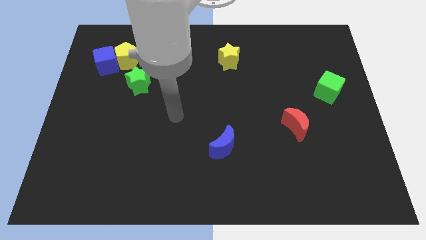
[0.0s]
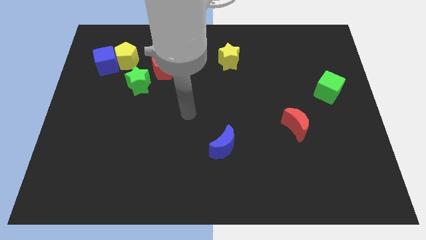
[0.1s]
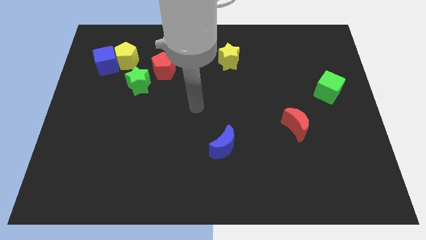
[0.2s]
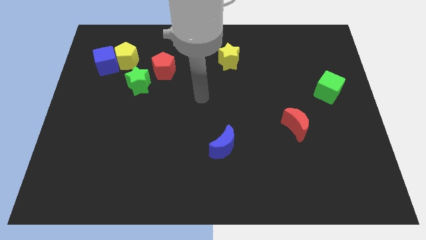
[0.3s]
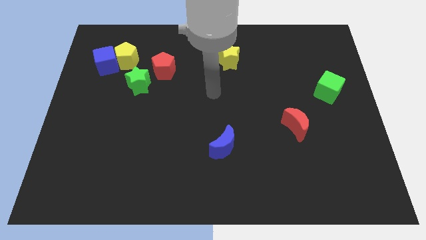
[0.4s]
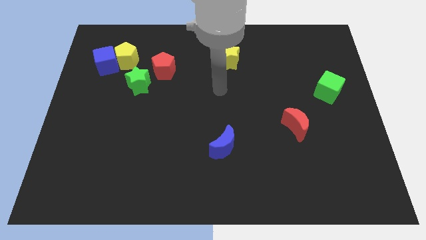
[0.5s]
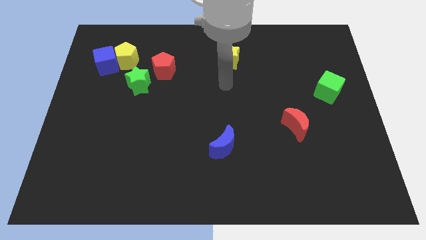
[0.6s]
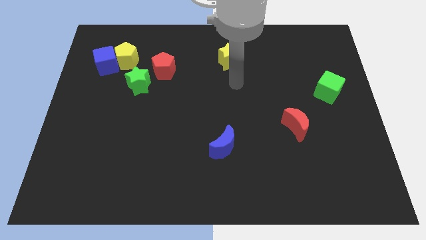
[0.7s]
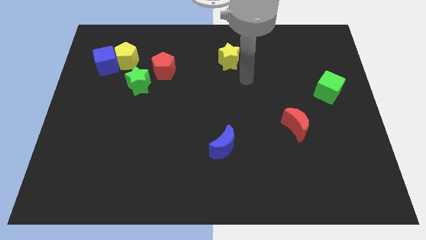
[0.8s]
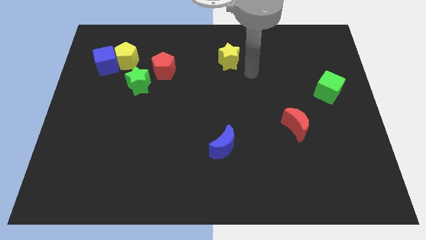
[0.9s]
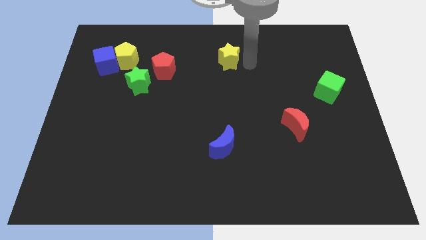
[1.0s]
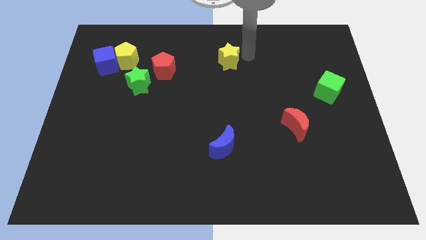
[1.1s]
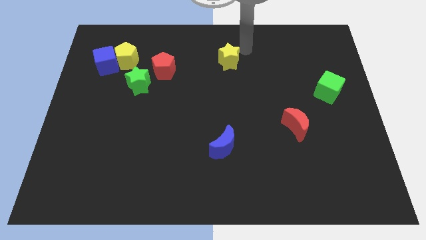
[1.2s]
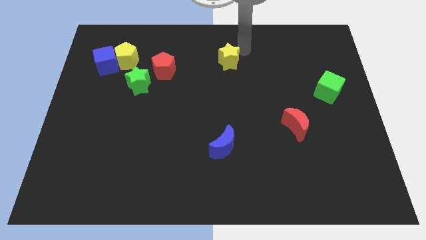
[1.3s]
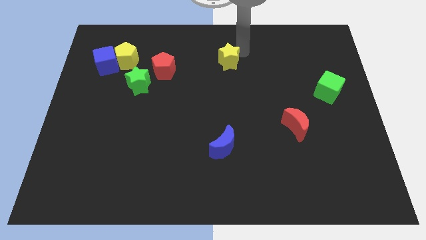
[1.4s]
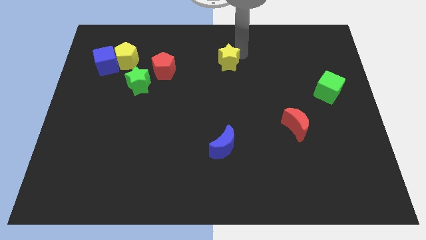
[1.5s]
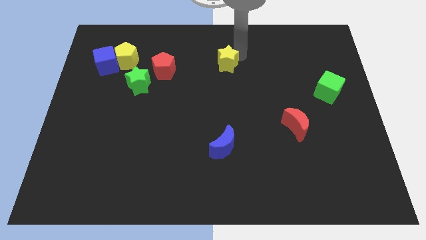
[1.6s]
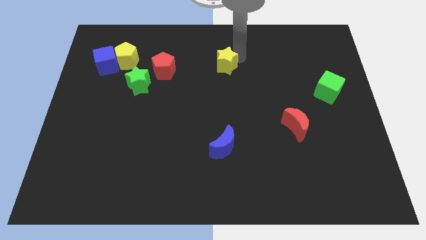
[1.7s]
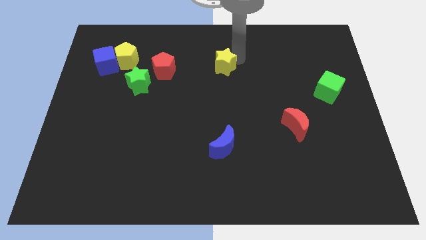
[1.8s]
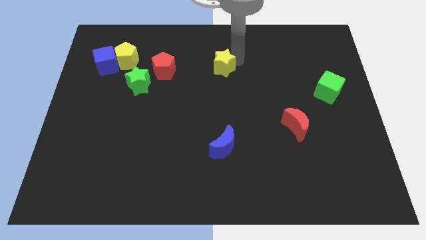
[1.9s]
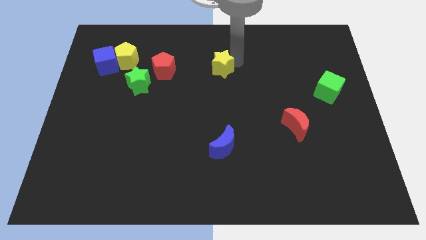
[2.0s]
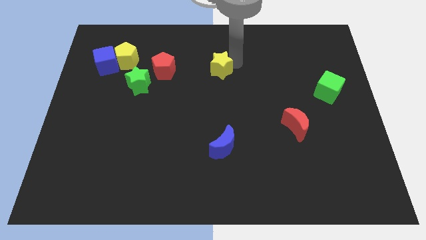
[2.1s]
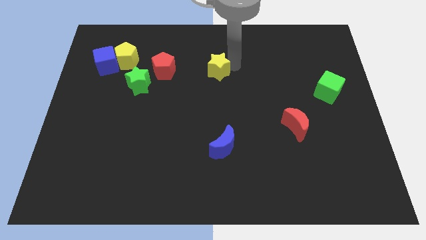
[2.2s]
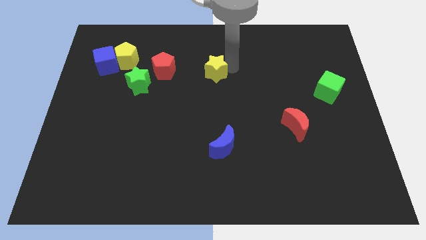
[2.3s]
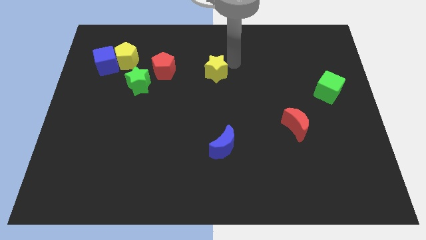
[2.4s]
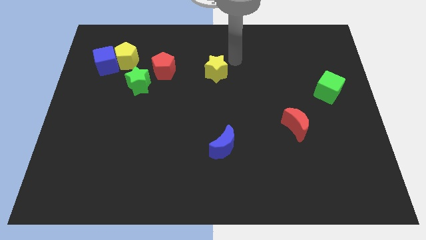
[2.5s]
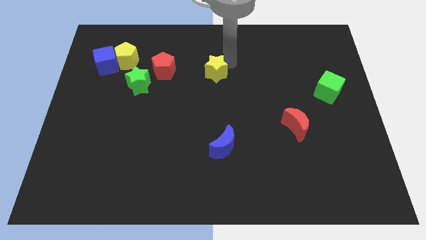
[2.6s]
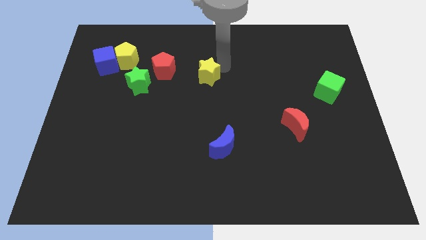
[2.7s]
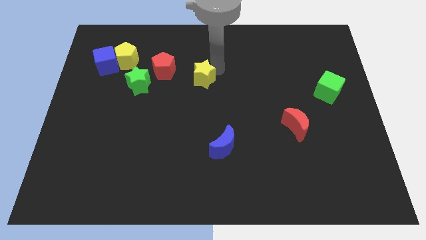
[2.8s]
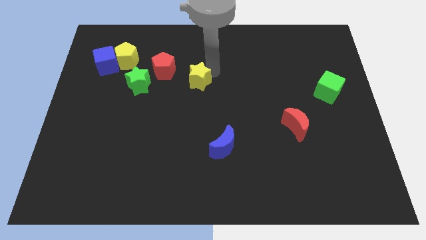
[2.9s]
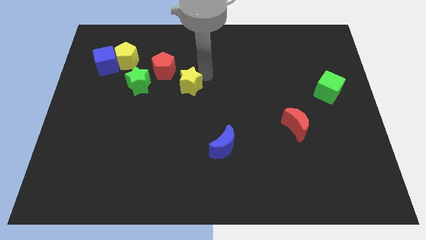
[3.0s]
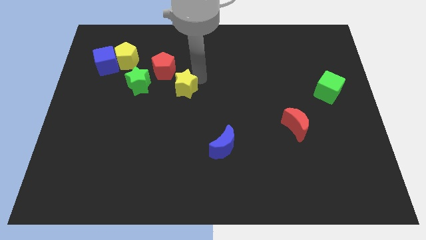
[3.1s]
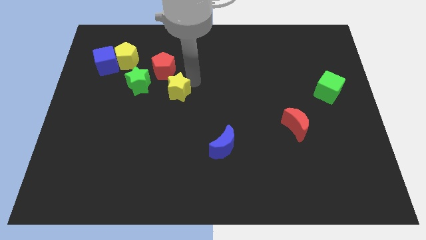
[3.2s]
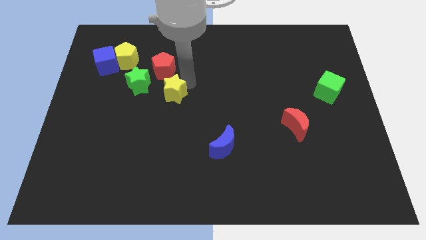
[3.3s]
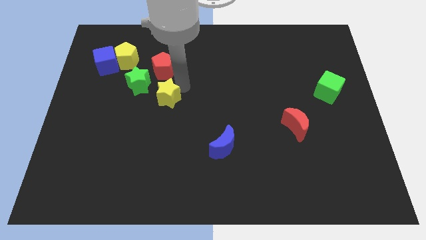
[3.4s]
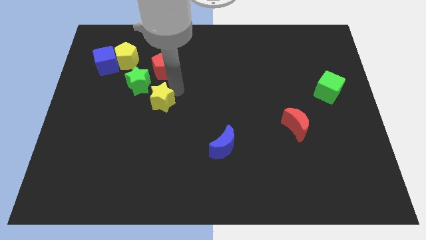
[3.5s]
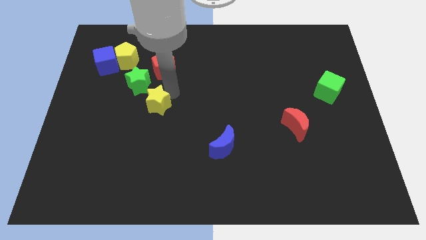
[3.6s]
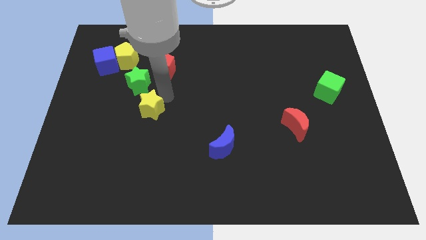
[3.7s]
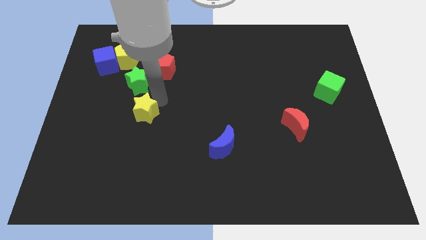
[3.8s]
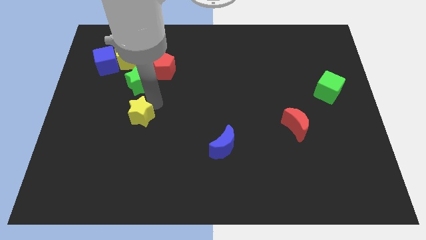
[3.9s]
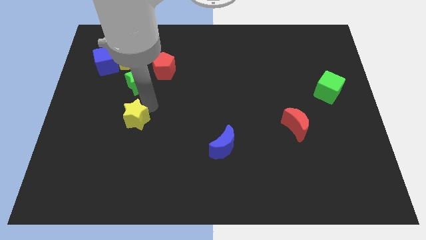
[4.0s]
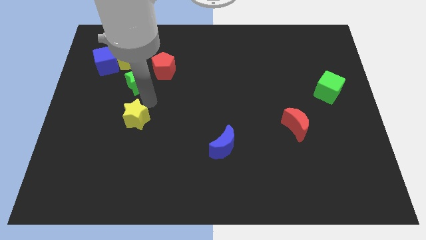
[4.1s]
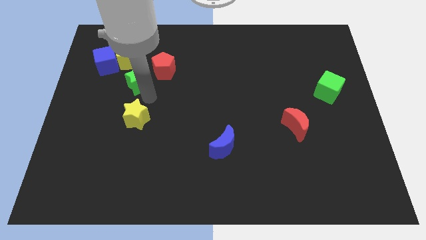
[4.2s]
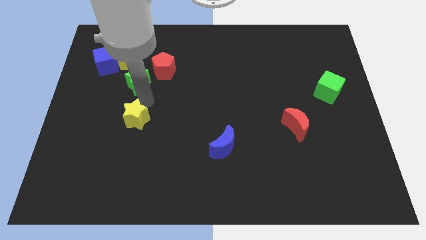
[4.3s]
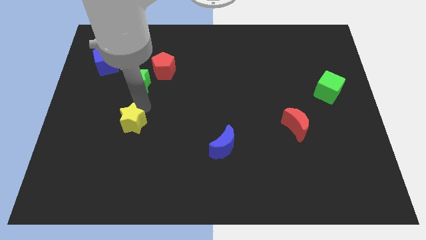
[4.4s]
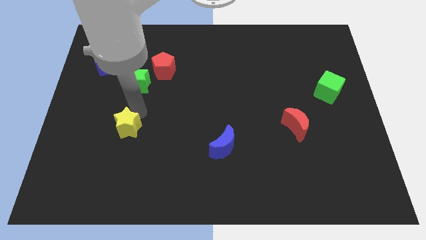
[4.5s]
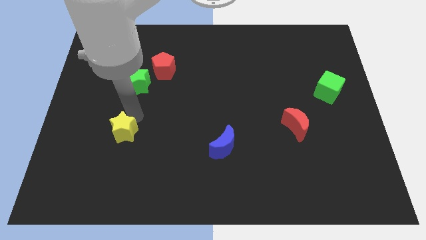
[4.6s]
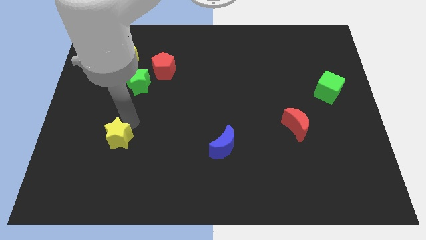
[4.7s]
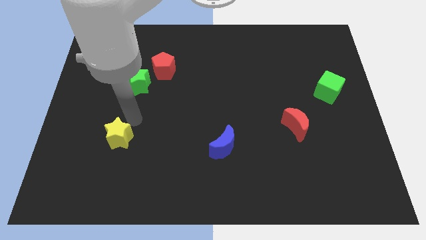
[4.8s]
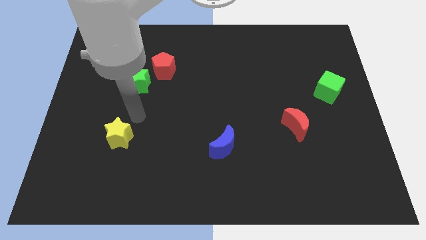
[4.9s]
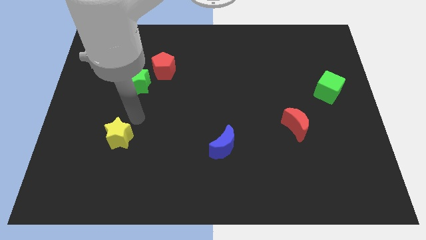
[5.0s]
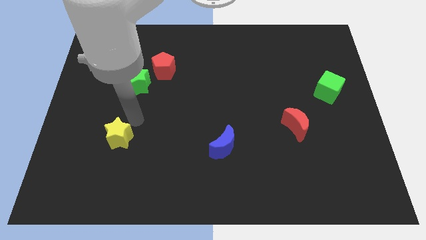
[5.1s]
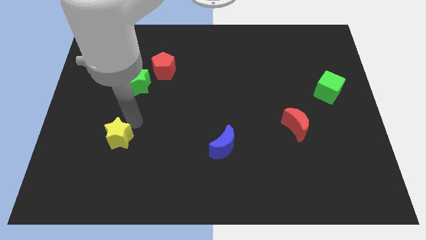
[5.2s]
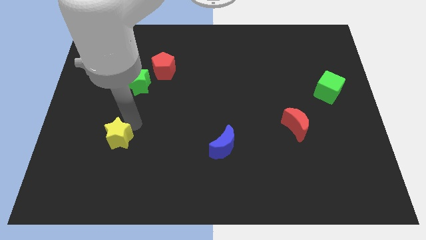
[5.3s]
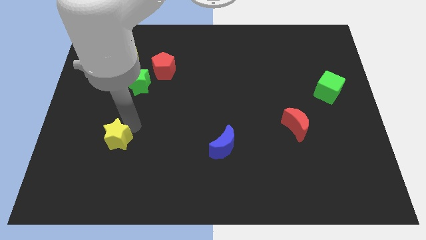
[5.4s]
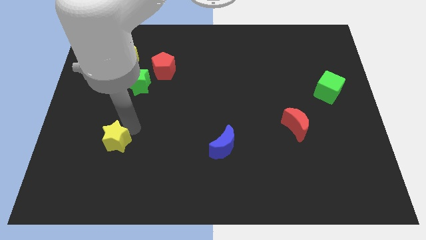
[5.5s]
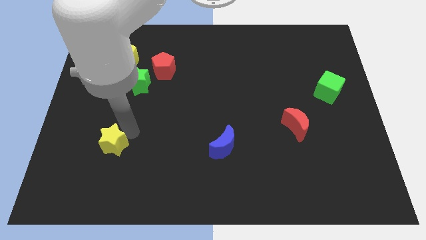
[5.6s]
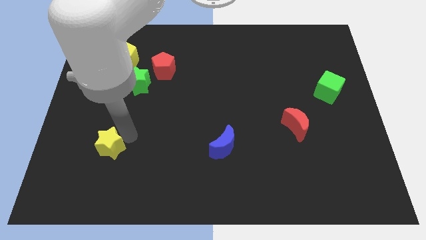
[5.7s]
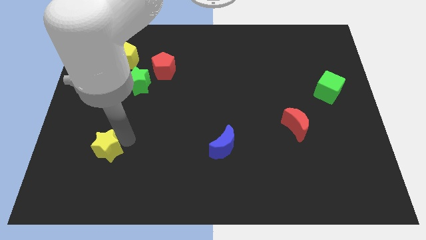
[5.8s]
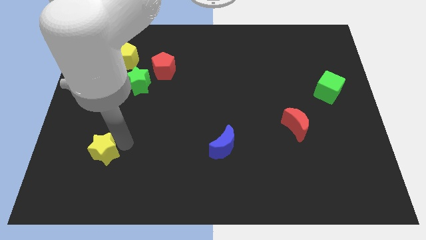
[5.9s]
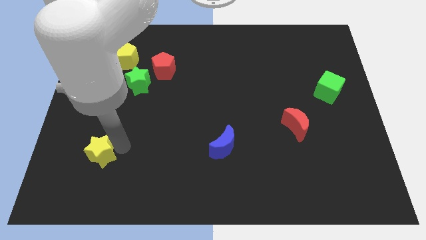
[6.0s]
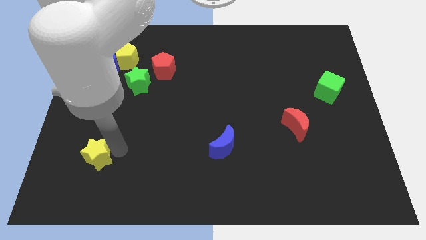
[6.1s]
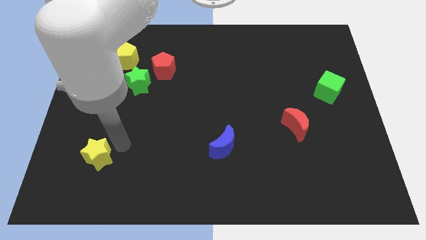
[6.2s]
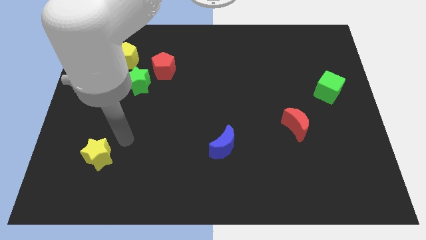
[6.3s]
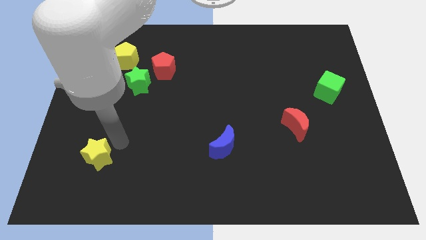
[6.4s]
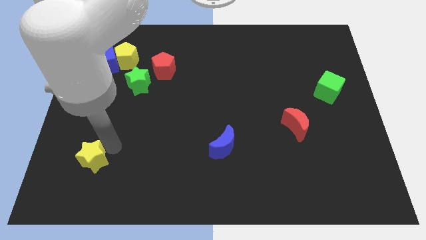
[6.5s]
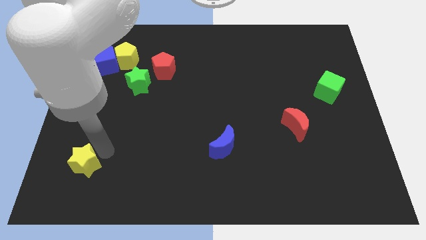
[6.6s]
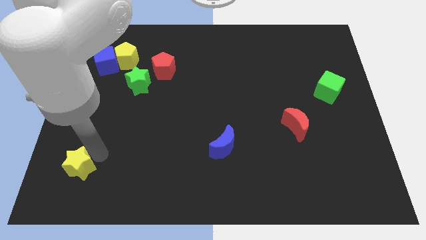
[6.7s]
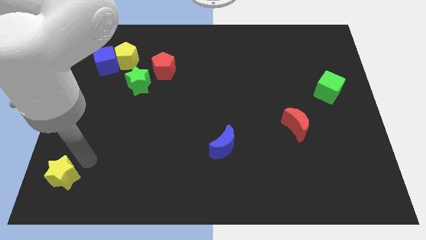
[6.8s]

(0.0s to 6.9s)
slide the yellow star to the bottom left corner
